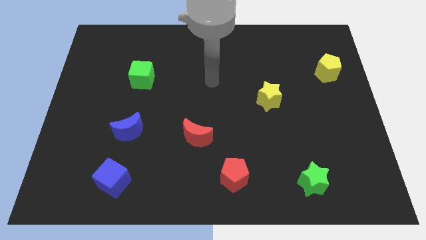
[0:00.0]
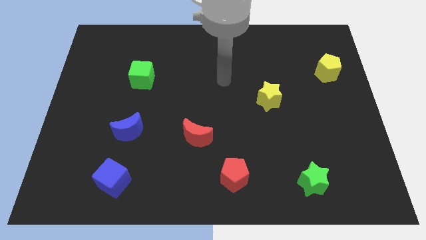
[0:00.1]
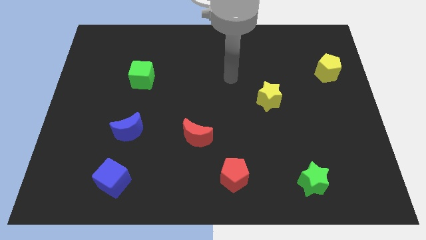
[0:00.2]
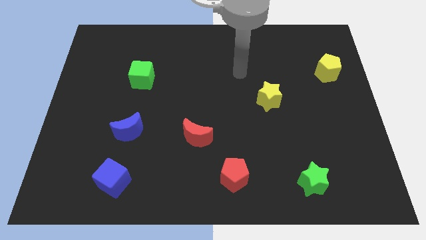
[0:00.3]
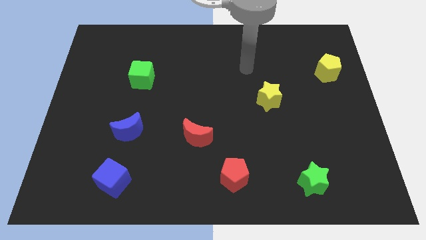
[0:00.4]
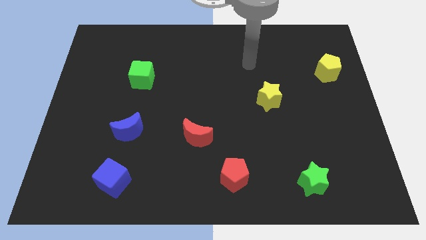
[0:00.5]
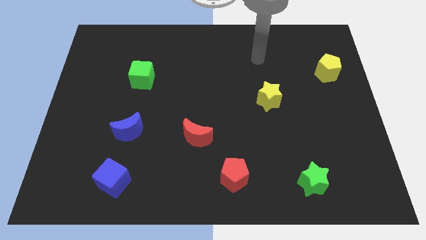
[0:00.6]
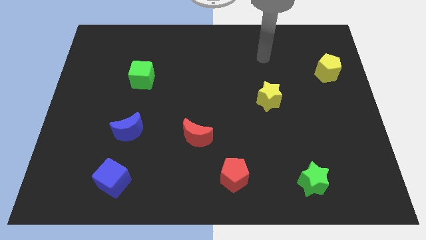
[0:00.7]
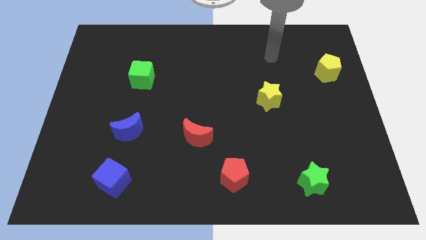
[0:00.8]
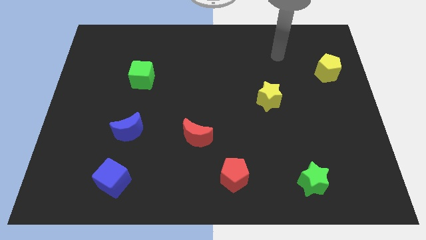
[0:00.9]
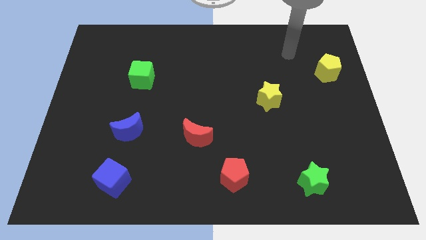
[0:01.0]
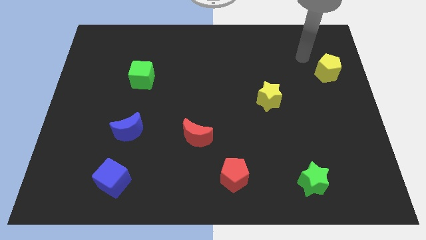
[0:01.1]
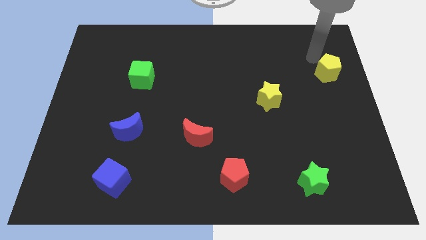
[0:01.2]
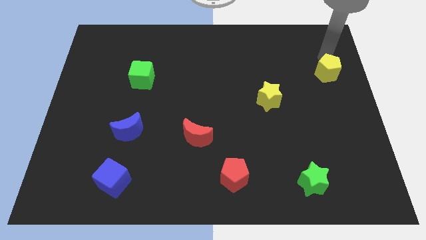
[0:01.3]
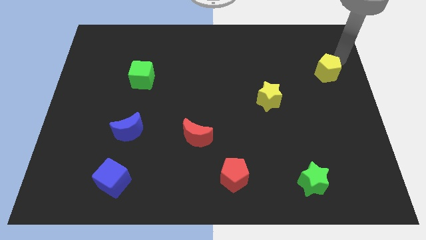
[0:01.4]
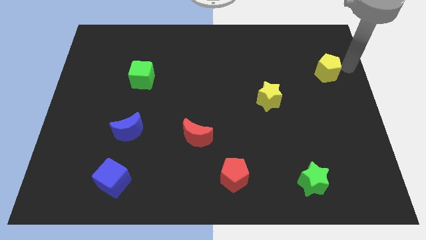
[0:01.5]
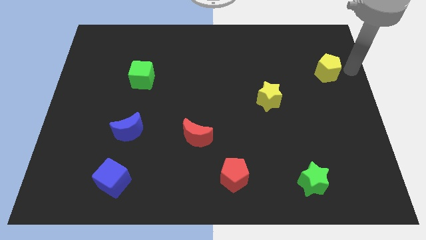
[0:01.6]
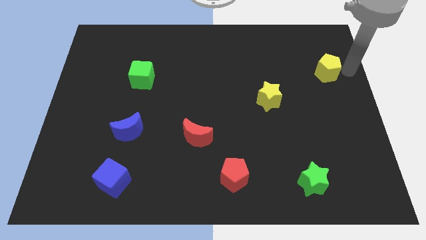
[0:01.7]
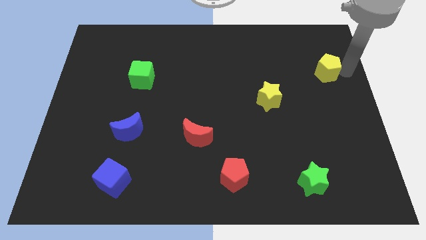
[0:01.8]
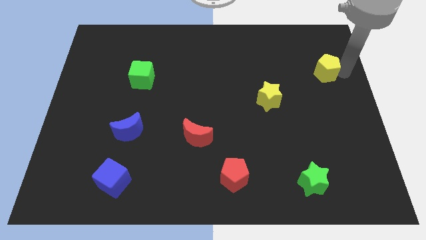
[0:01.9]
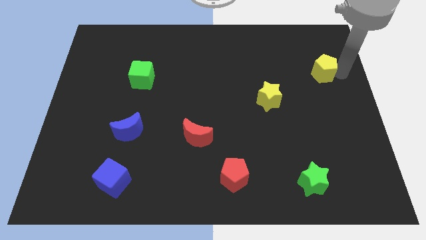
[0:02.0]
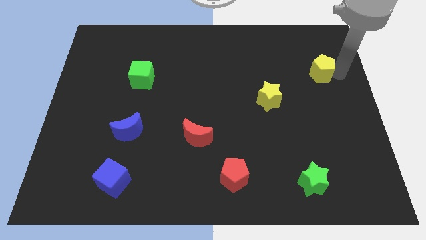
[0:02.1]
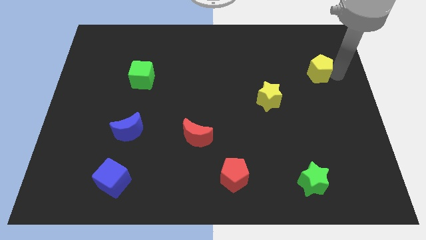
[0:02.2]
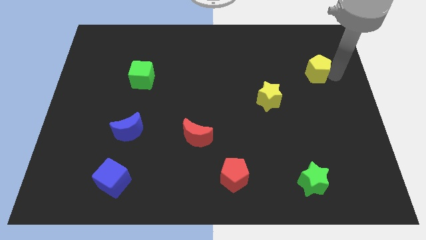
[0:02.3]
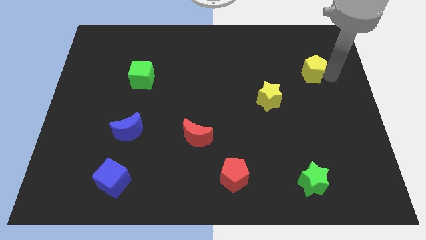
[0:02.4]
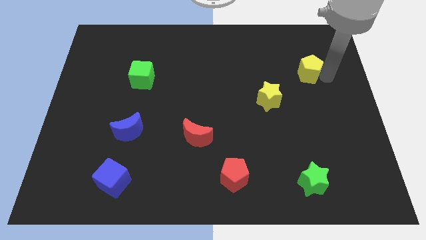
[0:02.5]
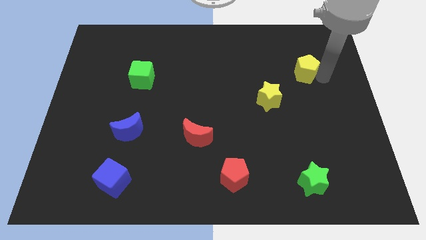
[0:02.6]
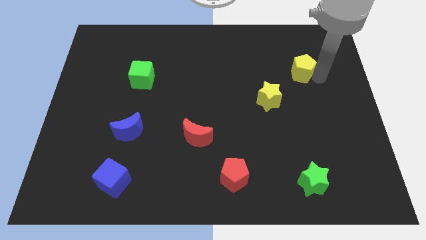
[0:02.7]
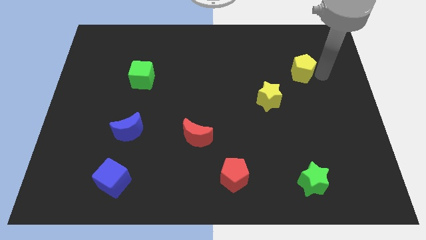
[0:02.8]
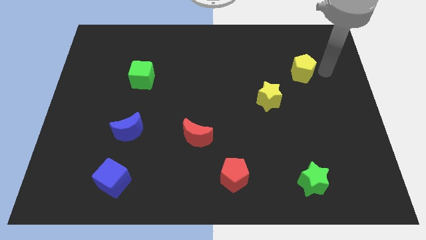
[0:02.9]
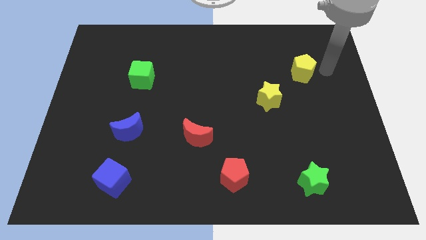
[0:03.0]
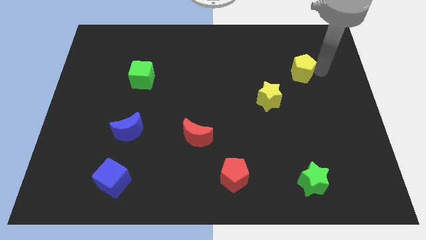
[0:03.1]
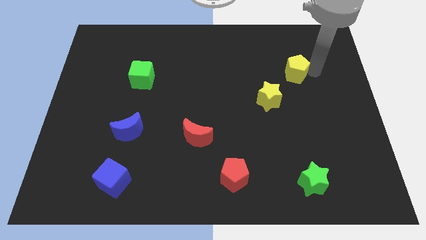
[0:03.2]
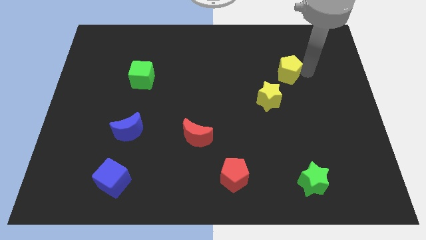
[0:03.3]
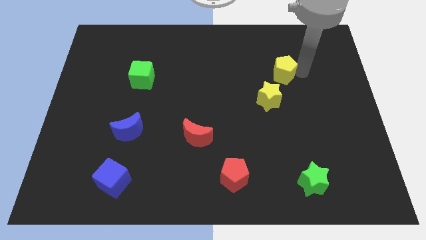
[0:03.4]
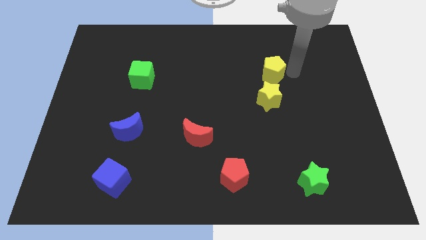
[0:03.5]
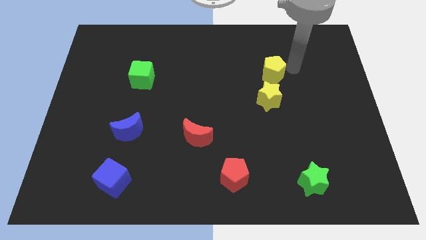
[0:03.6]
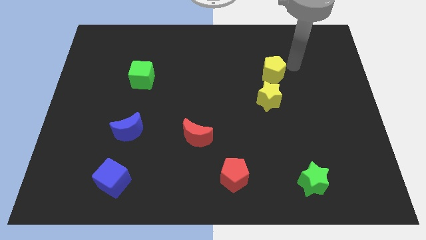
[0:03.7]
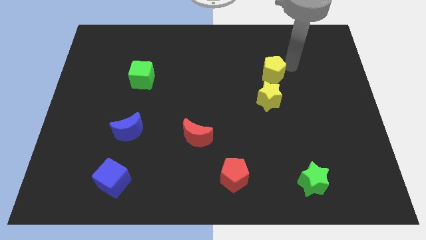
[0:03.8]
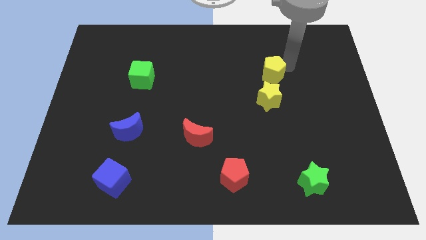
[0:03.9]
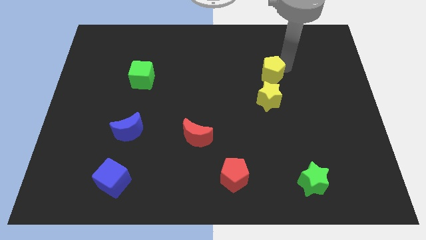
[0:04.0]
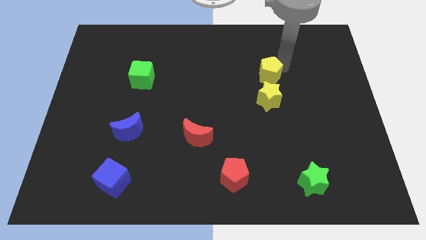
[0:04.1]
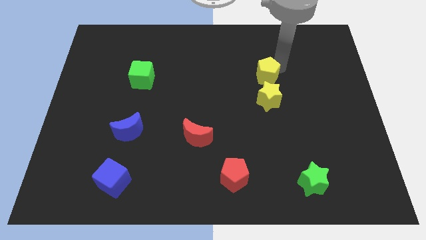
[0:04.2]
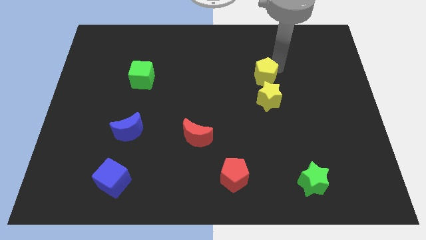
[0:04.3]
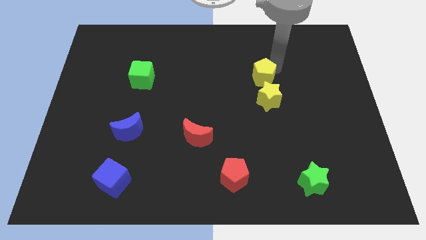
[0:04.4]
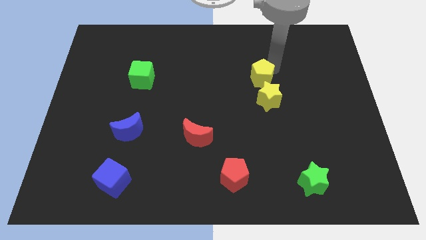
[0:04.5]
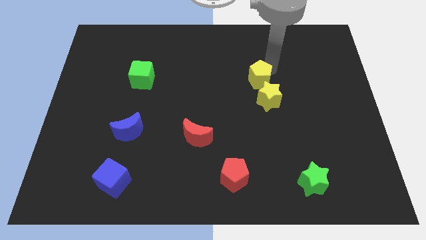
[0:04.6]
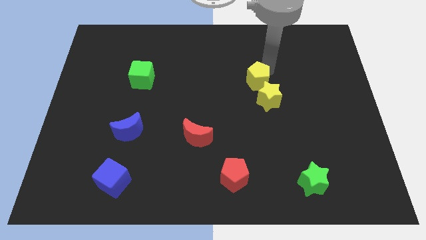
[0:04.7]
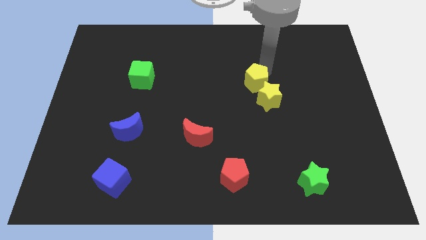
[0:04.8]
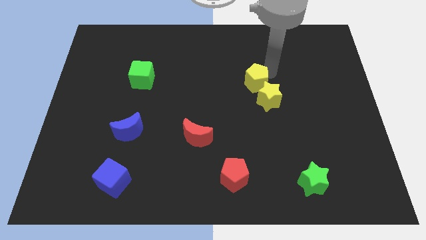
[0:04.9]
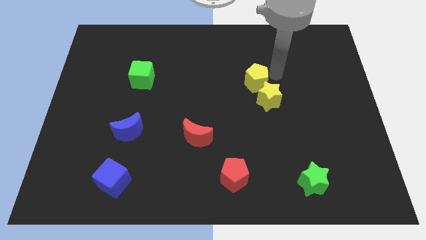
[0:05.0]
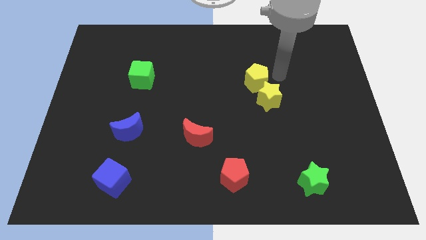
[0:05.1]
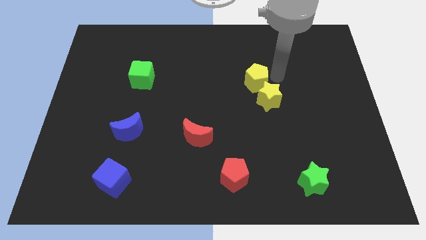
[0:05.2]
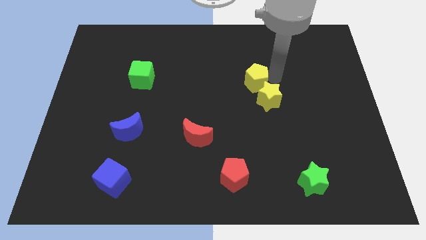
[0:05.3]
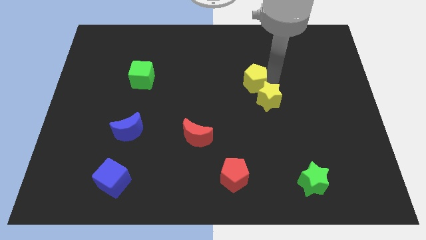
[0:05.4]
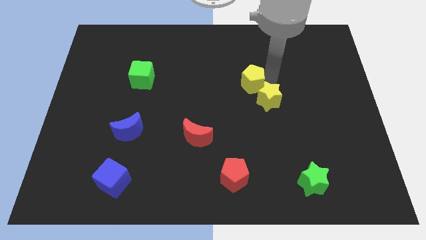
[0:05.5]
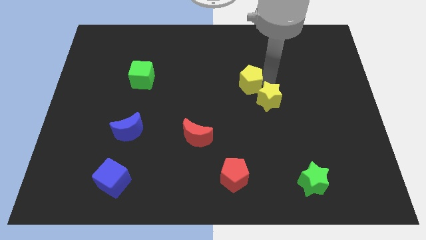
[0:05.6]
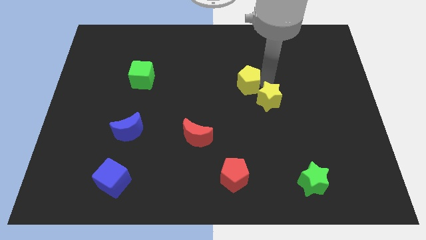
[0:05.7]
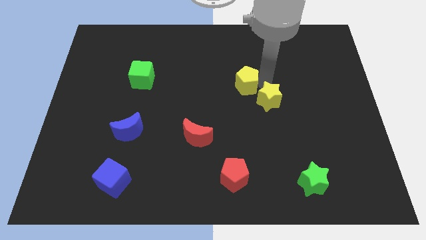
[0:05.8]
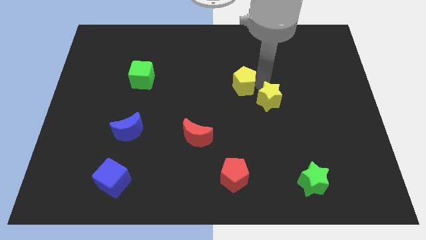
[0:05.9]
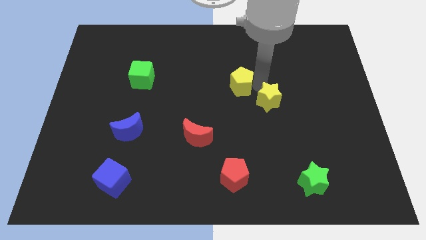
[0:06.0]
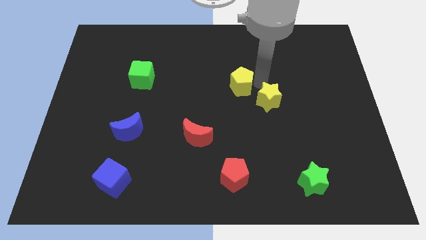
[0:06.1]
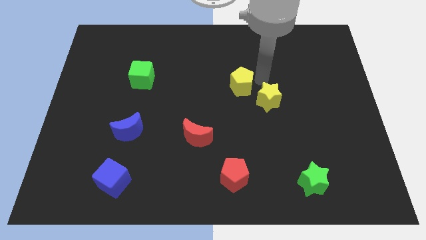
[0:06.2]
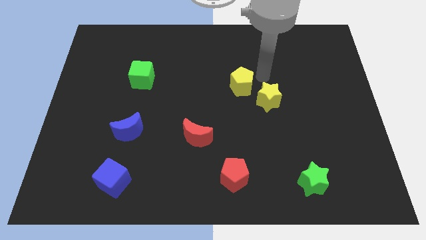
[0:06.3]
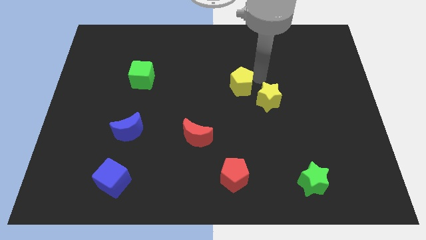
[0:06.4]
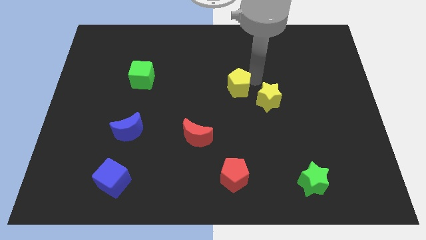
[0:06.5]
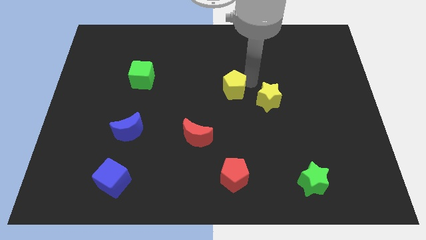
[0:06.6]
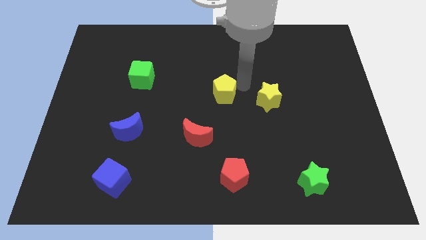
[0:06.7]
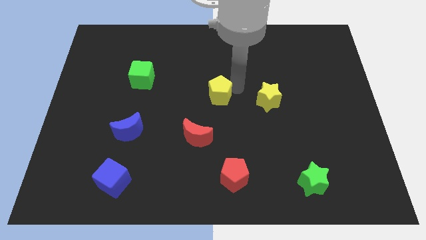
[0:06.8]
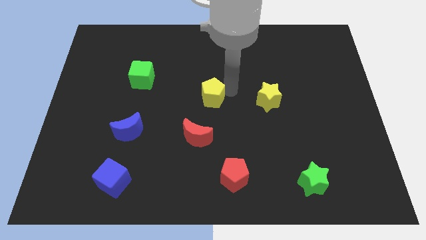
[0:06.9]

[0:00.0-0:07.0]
put the yellow pentagon to the top side of the red moon
